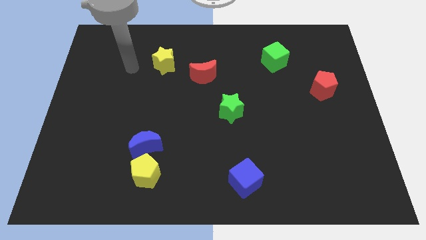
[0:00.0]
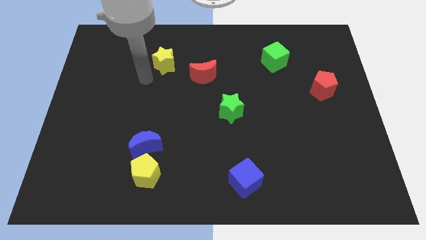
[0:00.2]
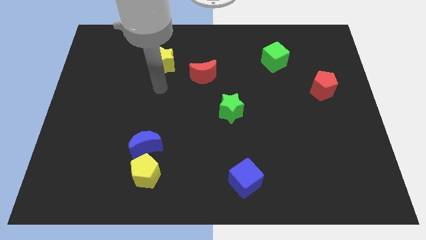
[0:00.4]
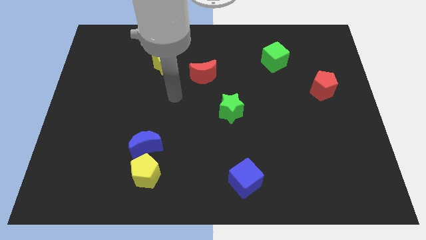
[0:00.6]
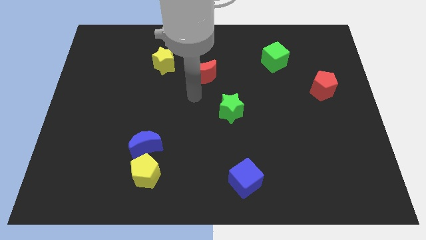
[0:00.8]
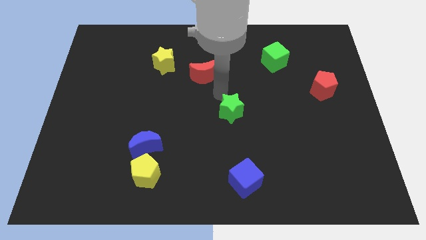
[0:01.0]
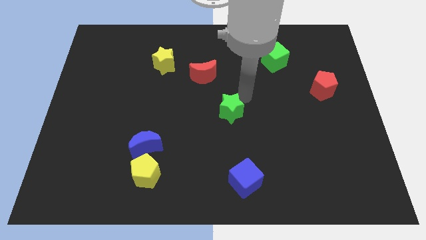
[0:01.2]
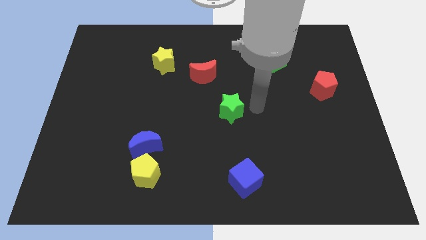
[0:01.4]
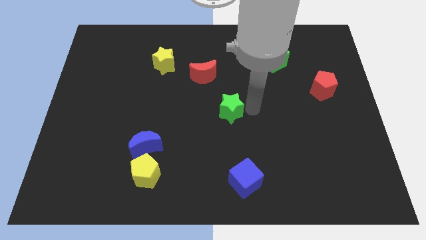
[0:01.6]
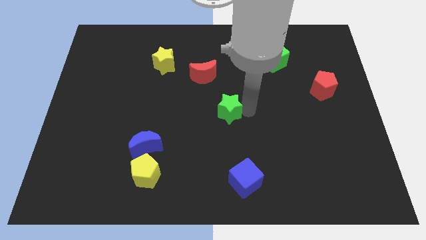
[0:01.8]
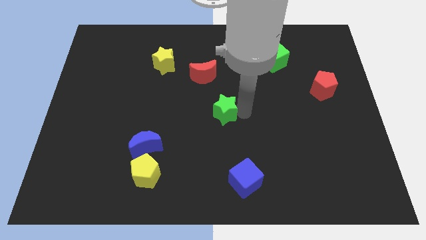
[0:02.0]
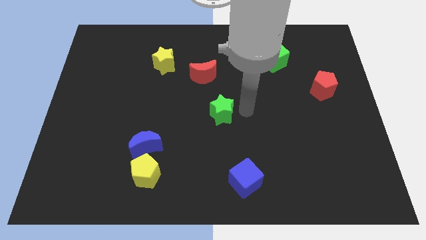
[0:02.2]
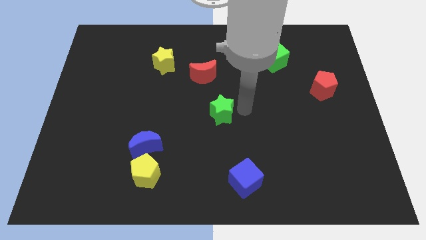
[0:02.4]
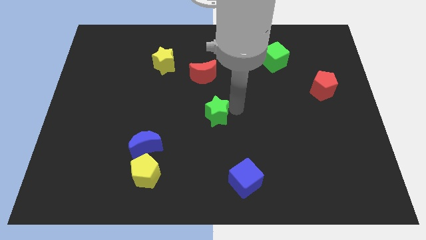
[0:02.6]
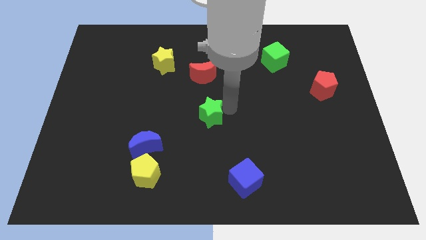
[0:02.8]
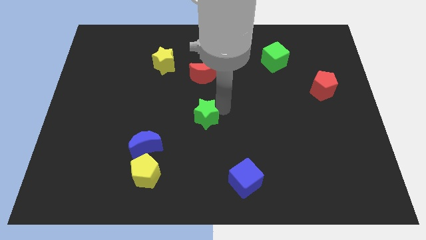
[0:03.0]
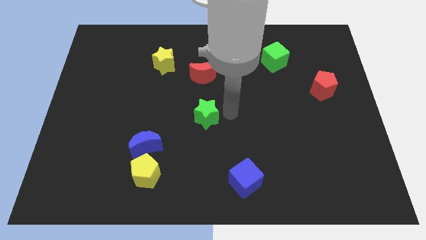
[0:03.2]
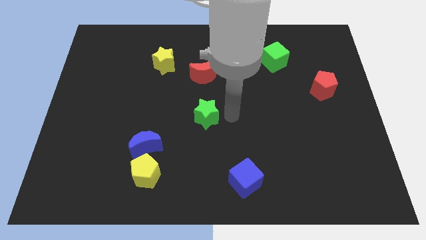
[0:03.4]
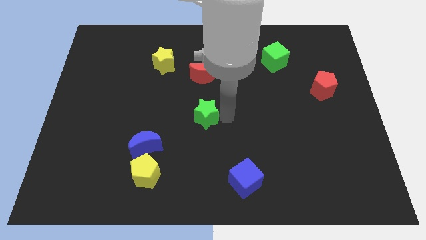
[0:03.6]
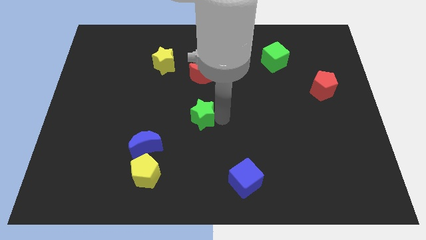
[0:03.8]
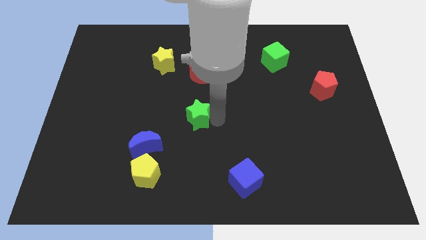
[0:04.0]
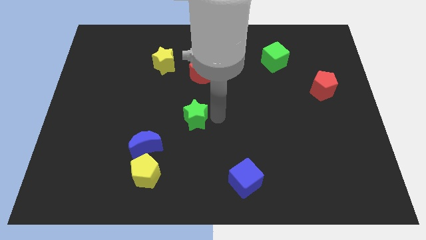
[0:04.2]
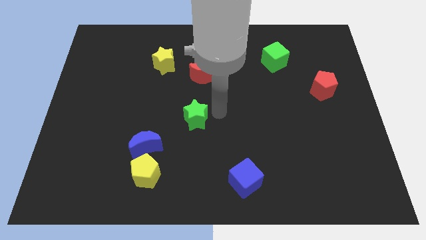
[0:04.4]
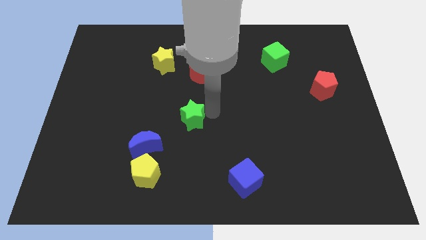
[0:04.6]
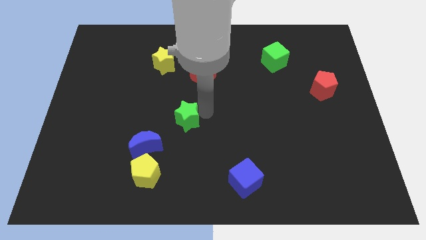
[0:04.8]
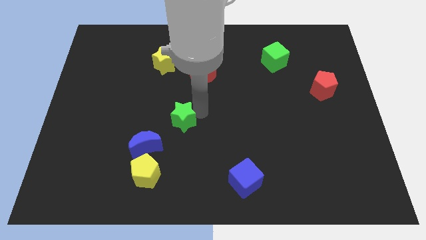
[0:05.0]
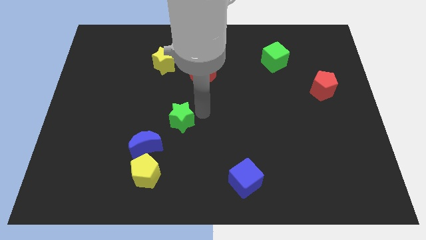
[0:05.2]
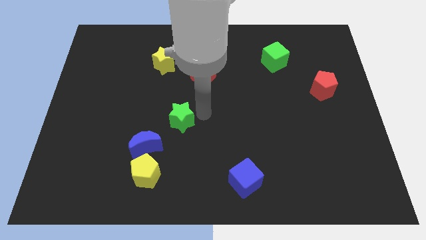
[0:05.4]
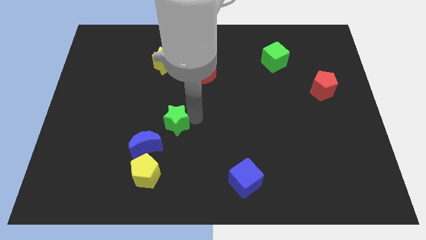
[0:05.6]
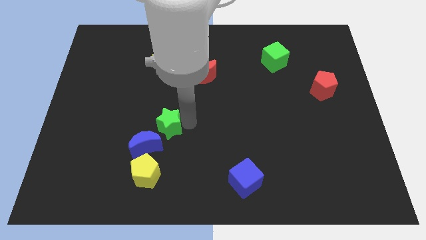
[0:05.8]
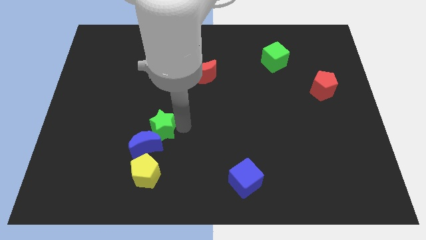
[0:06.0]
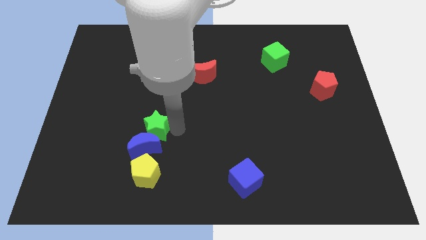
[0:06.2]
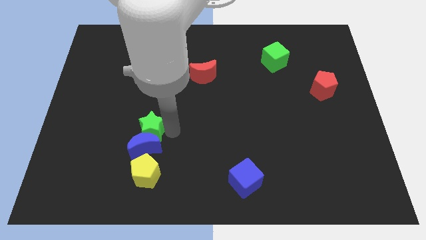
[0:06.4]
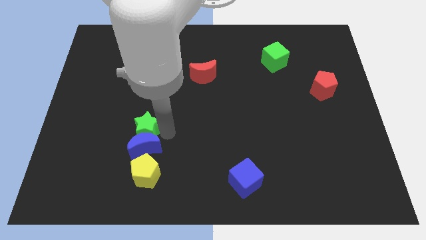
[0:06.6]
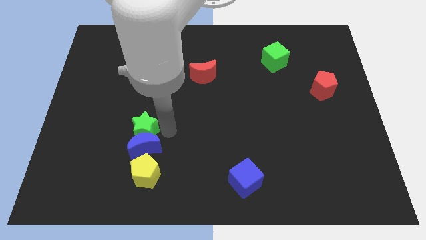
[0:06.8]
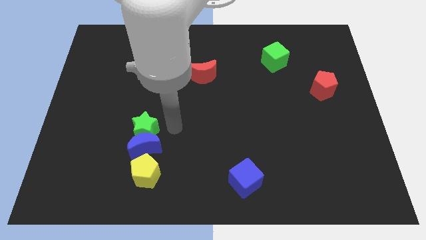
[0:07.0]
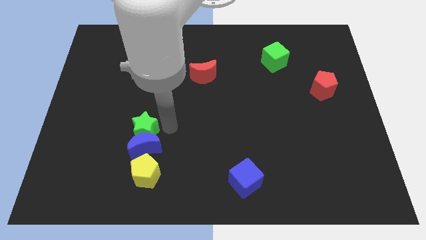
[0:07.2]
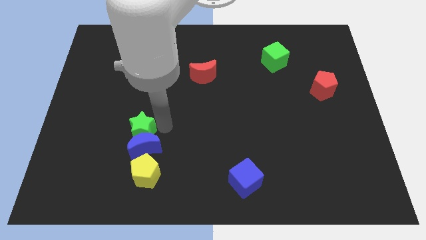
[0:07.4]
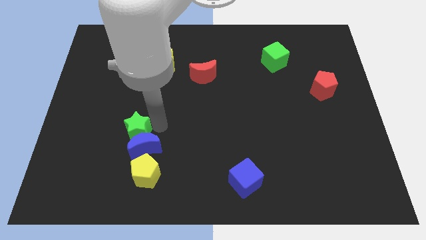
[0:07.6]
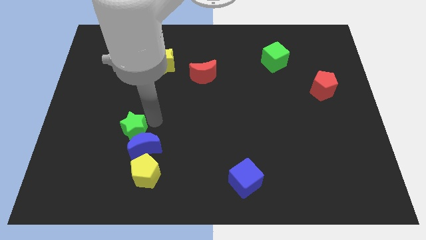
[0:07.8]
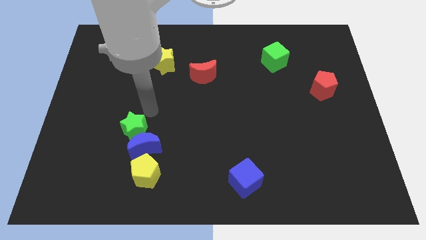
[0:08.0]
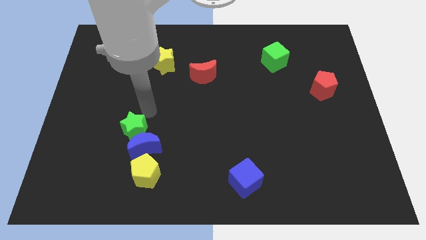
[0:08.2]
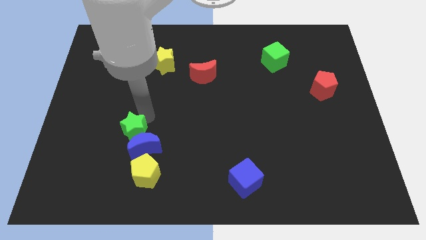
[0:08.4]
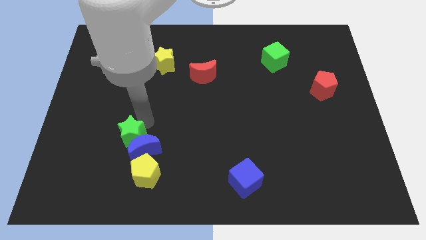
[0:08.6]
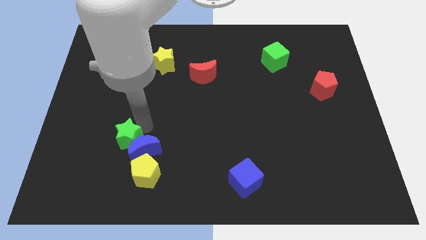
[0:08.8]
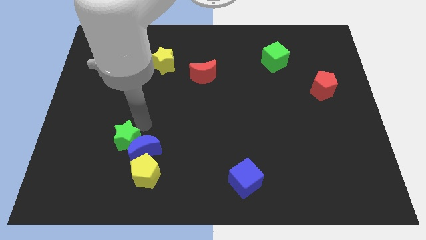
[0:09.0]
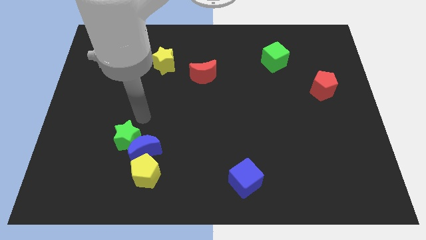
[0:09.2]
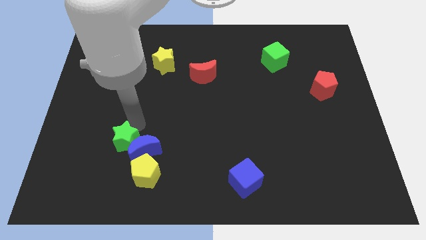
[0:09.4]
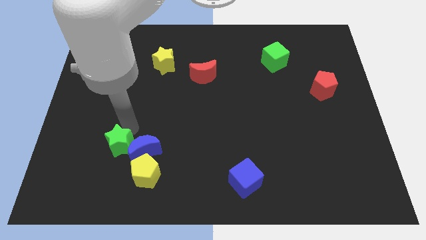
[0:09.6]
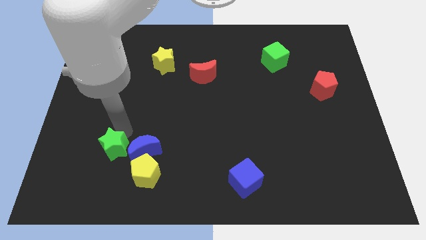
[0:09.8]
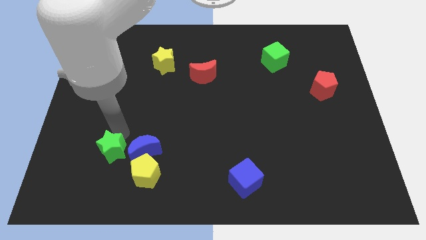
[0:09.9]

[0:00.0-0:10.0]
slide the green star diagonally down and to the left of the blue moon

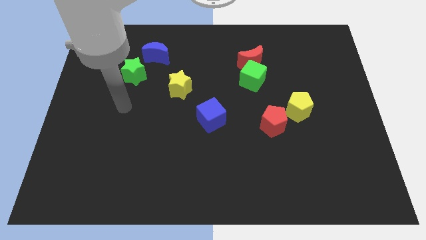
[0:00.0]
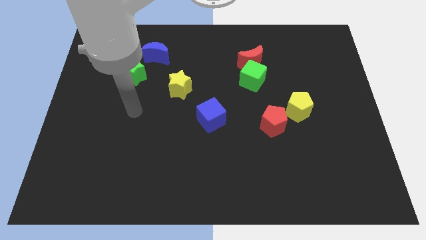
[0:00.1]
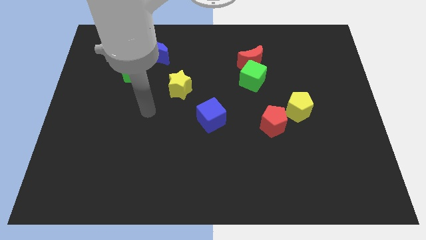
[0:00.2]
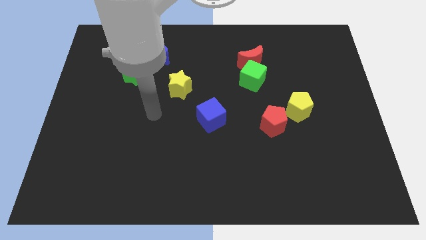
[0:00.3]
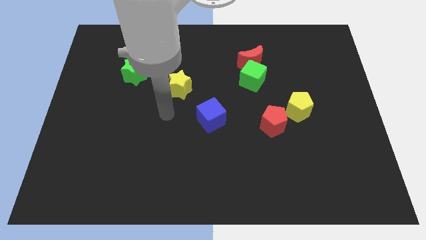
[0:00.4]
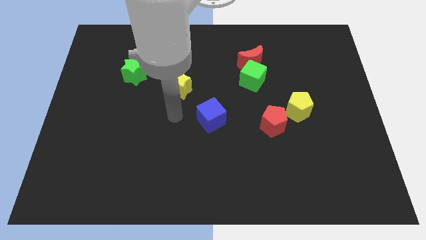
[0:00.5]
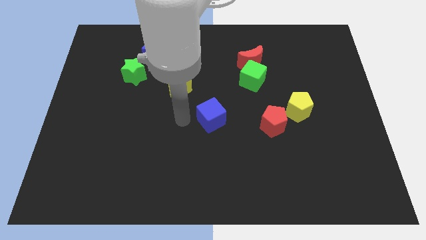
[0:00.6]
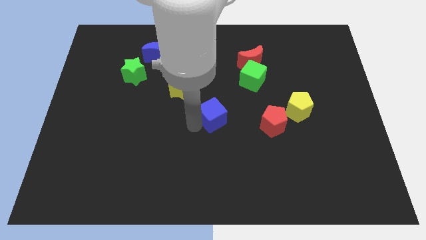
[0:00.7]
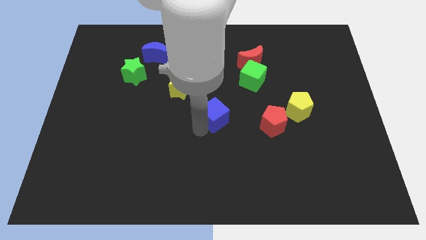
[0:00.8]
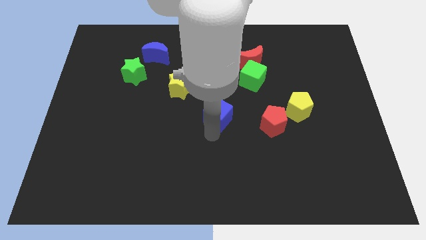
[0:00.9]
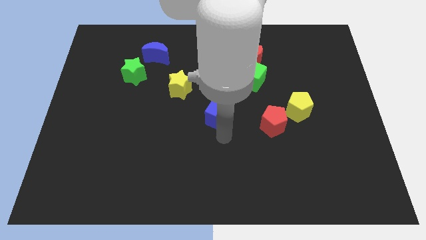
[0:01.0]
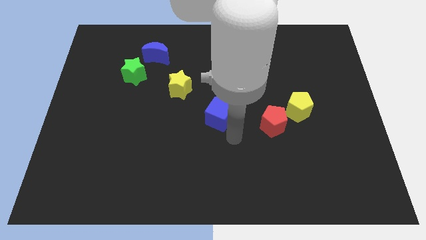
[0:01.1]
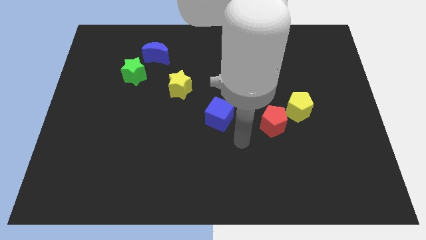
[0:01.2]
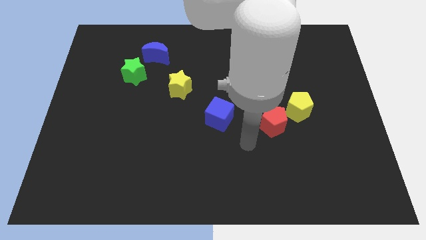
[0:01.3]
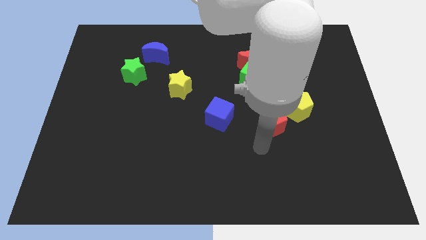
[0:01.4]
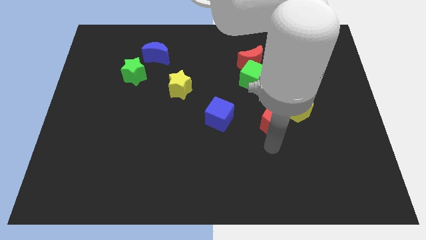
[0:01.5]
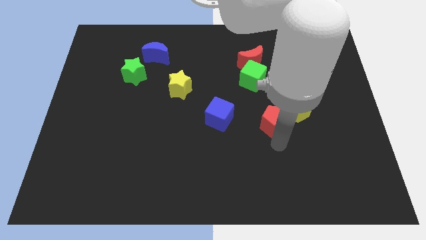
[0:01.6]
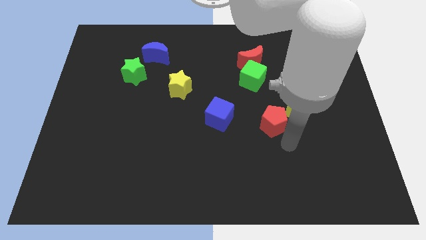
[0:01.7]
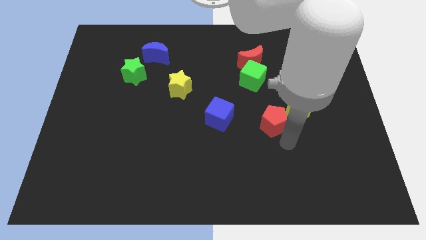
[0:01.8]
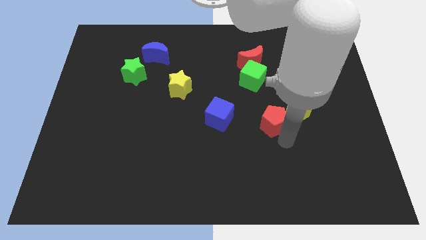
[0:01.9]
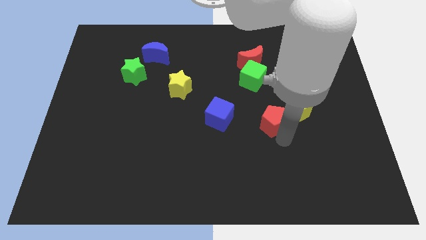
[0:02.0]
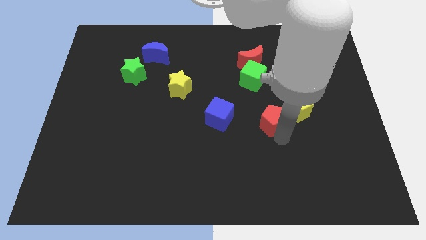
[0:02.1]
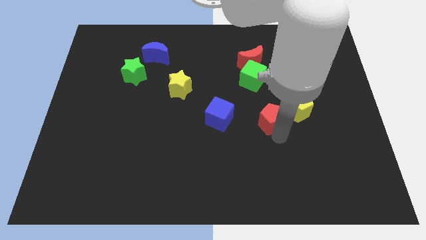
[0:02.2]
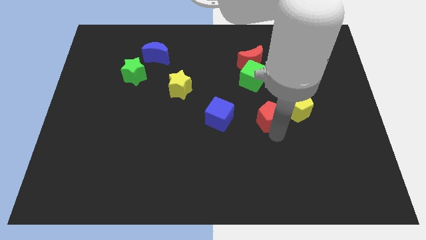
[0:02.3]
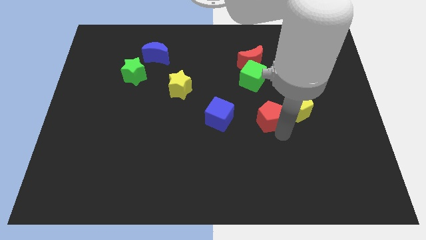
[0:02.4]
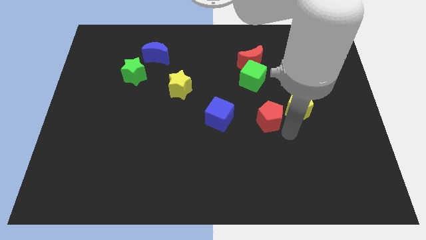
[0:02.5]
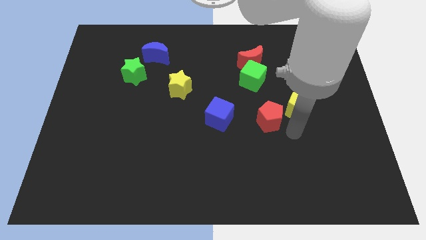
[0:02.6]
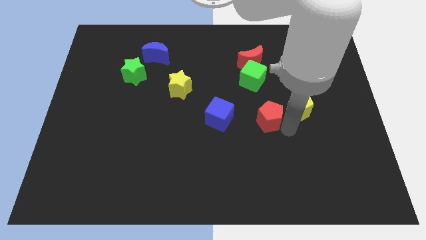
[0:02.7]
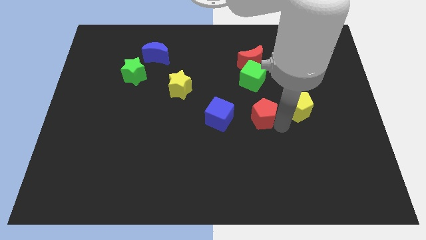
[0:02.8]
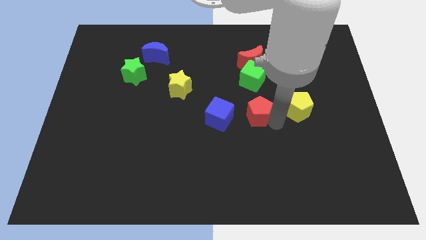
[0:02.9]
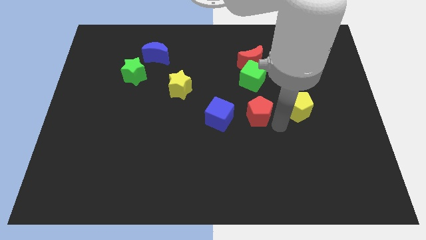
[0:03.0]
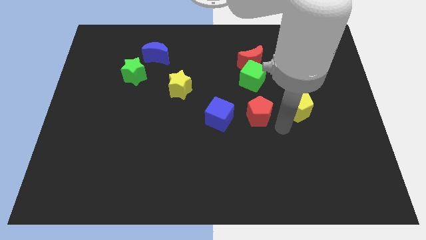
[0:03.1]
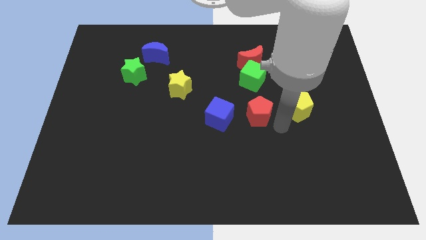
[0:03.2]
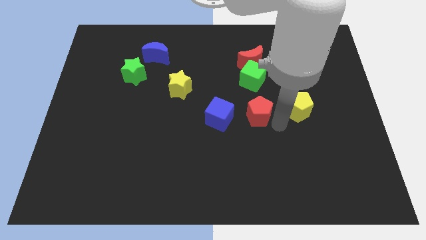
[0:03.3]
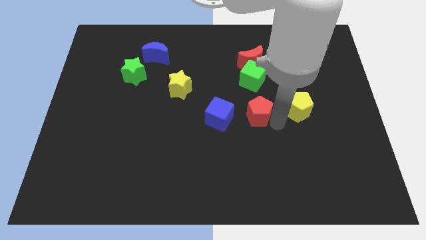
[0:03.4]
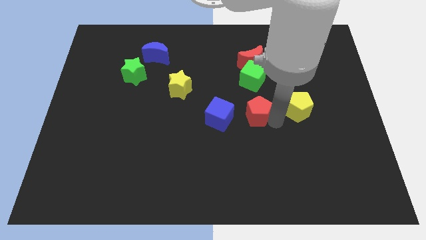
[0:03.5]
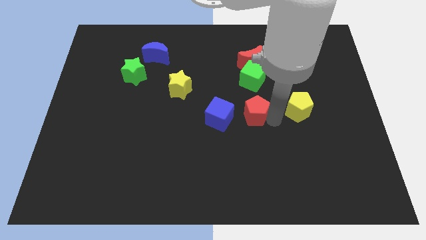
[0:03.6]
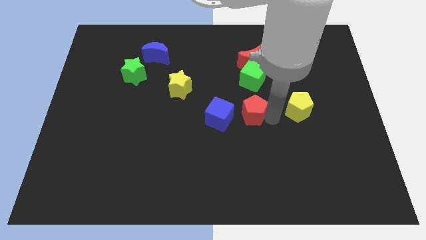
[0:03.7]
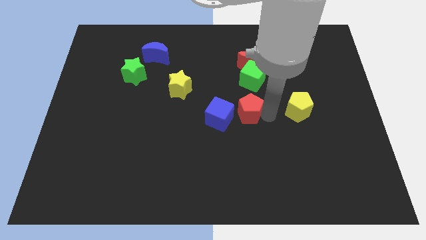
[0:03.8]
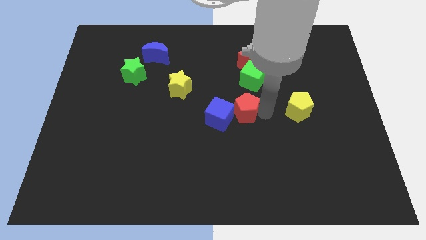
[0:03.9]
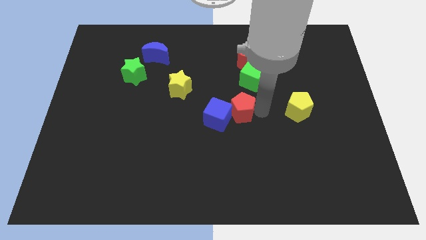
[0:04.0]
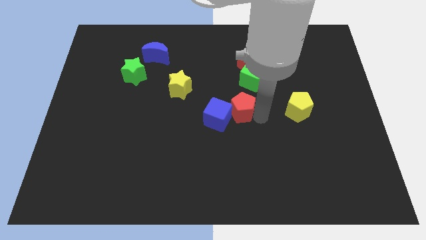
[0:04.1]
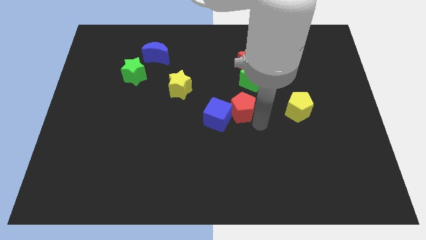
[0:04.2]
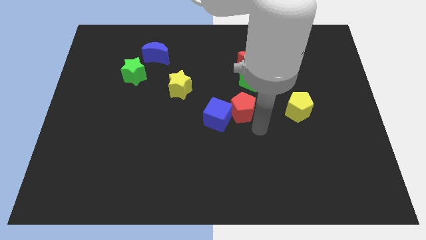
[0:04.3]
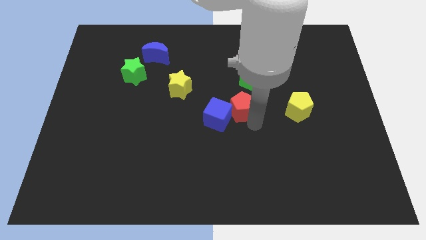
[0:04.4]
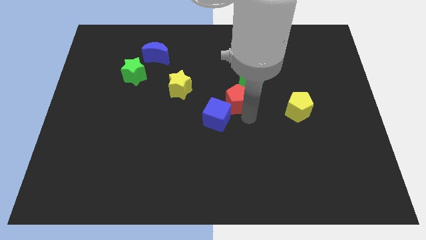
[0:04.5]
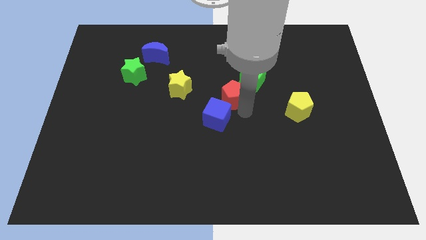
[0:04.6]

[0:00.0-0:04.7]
move the red pentagon to the right of the yellow star
